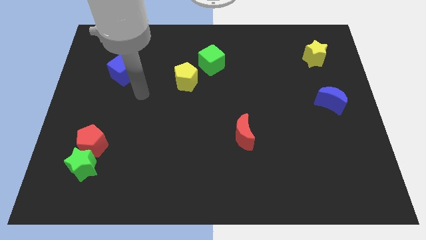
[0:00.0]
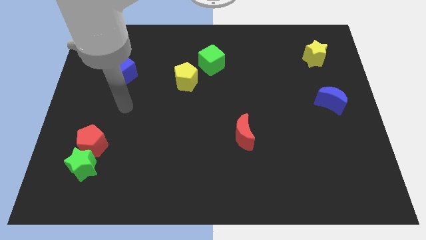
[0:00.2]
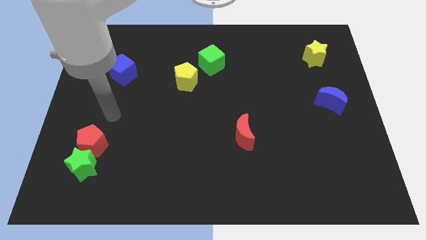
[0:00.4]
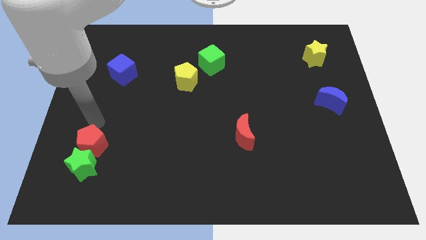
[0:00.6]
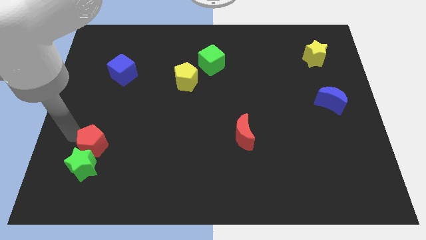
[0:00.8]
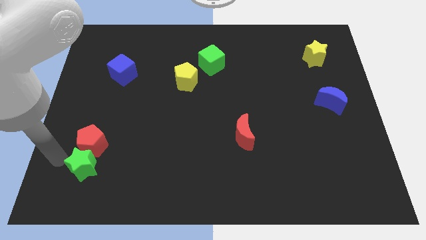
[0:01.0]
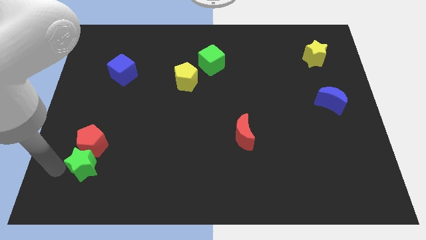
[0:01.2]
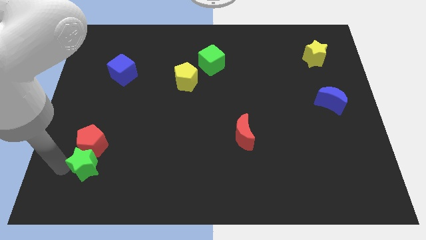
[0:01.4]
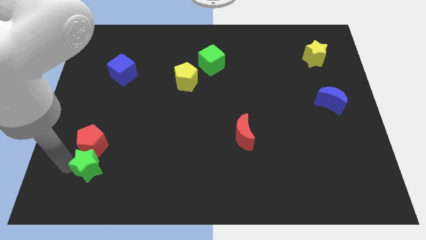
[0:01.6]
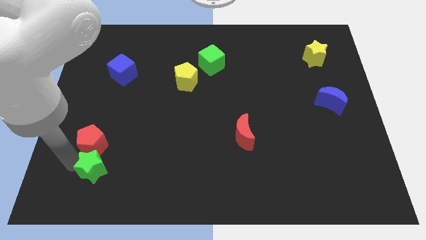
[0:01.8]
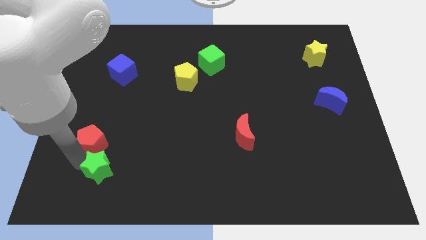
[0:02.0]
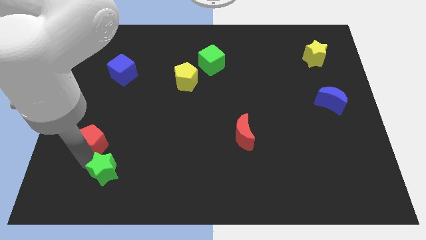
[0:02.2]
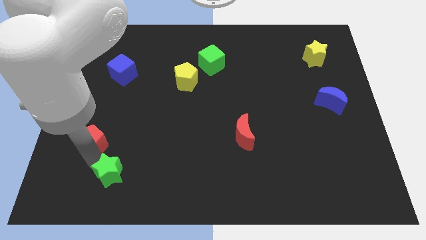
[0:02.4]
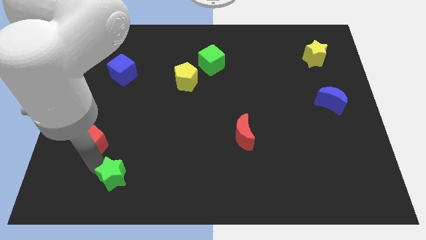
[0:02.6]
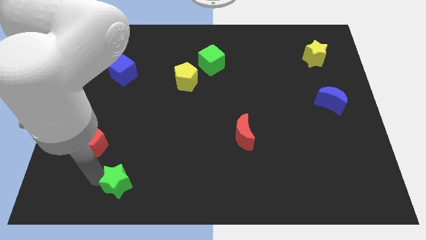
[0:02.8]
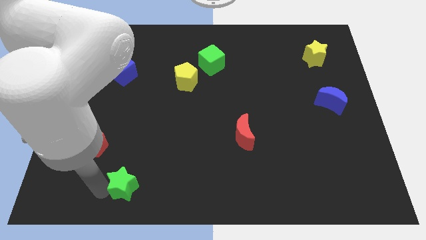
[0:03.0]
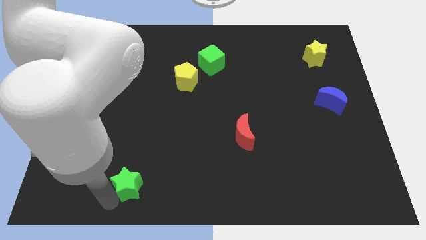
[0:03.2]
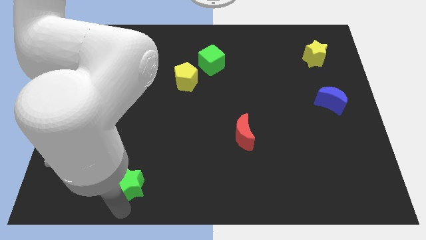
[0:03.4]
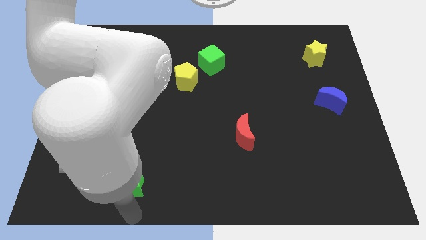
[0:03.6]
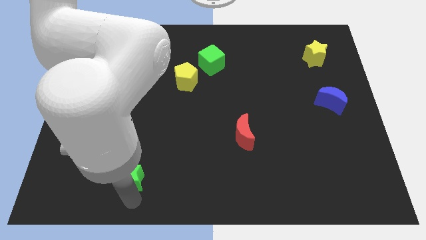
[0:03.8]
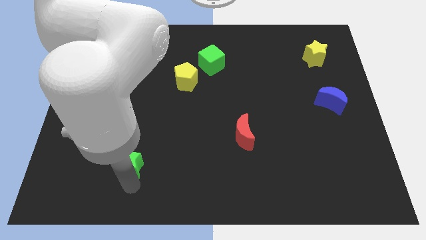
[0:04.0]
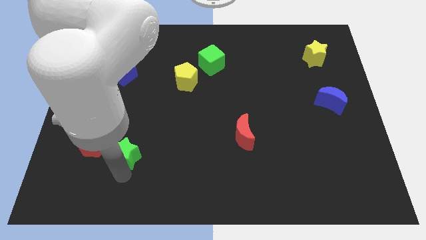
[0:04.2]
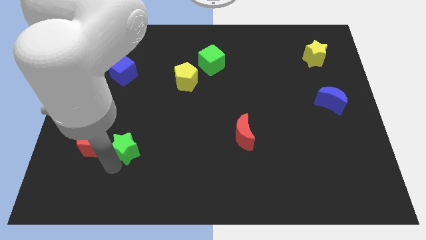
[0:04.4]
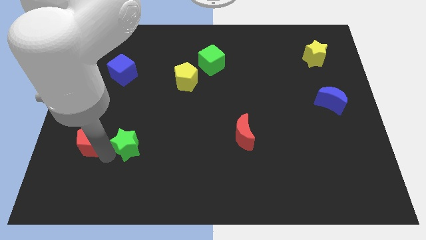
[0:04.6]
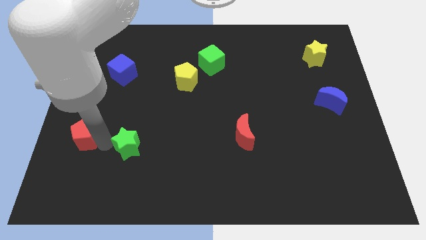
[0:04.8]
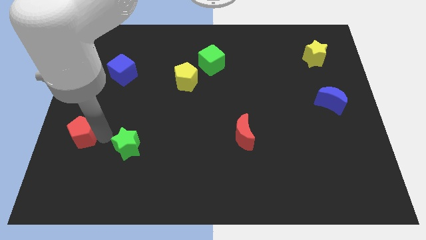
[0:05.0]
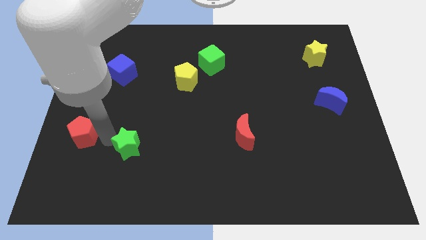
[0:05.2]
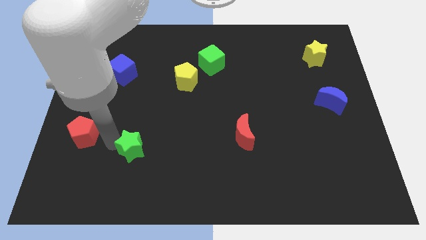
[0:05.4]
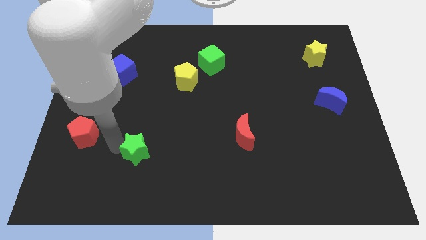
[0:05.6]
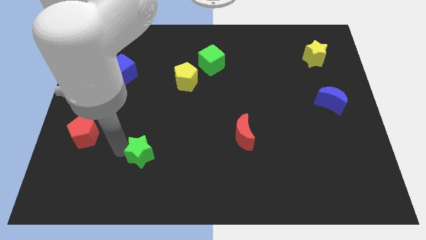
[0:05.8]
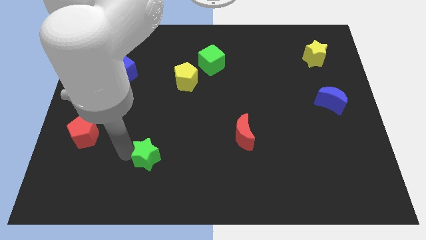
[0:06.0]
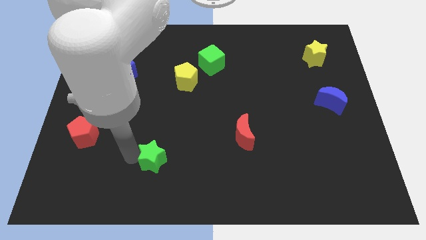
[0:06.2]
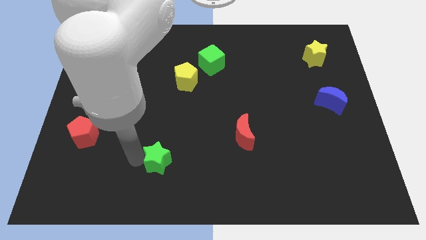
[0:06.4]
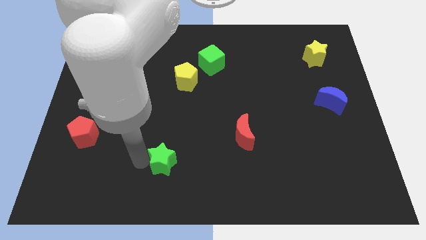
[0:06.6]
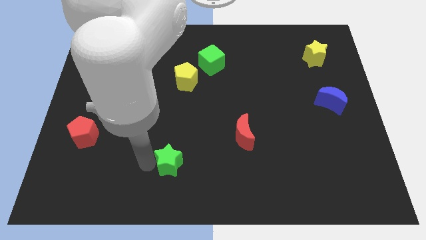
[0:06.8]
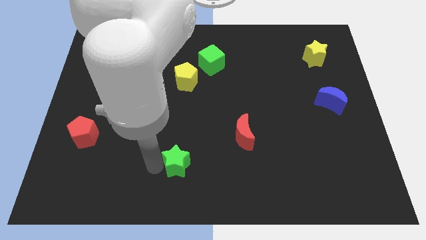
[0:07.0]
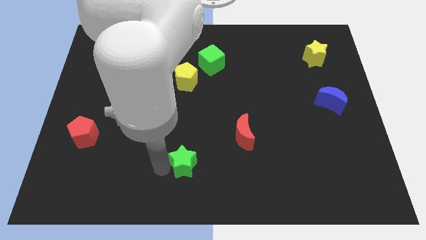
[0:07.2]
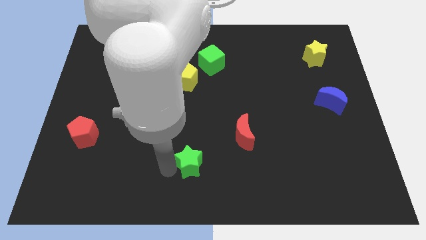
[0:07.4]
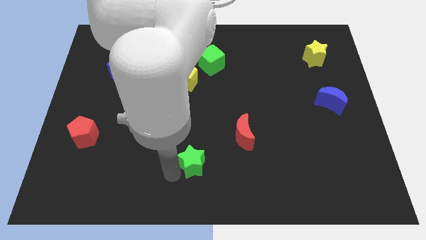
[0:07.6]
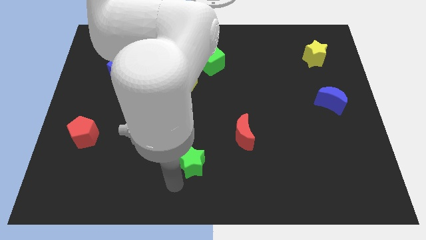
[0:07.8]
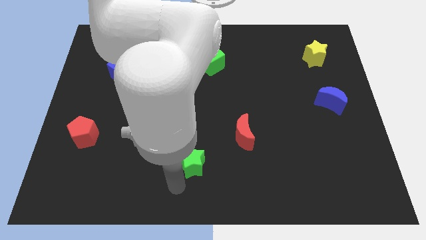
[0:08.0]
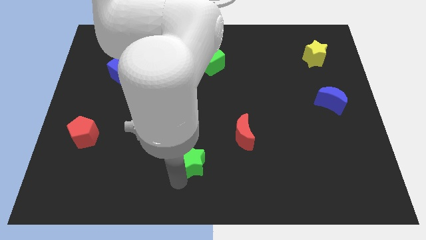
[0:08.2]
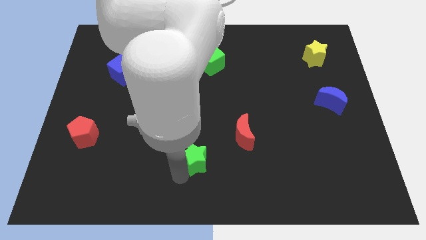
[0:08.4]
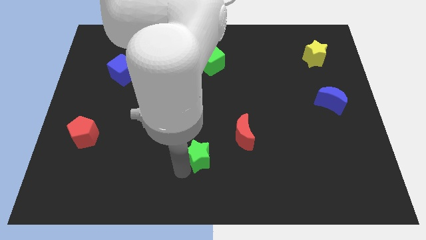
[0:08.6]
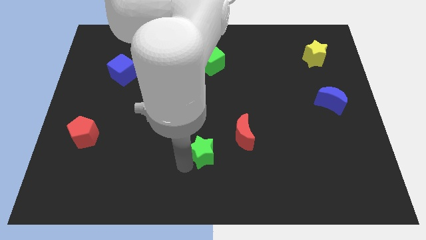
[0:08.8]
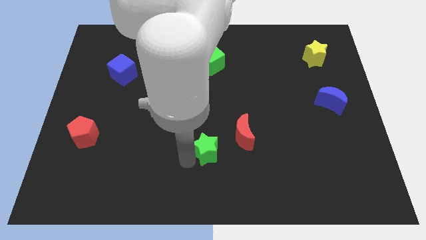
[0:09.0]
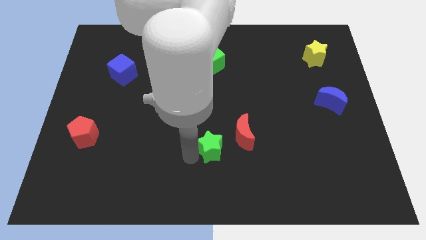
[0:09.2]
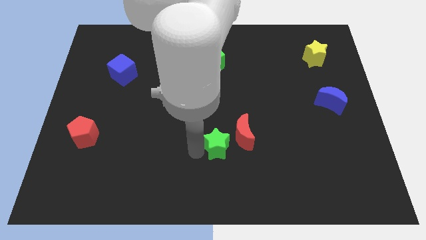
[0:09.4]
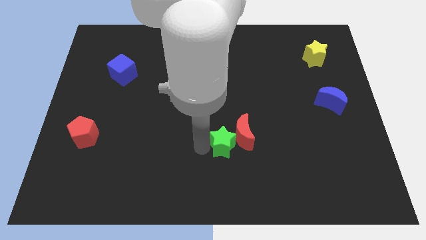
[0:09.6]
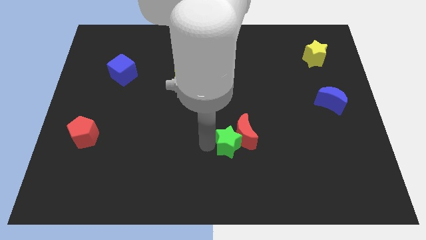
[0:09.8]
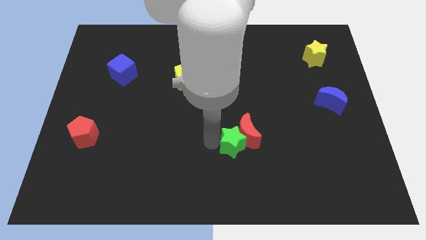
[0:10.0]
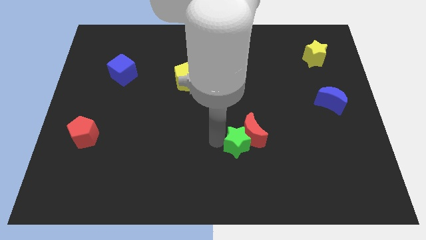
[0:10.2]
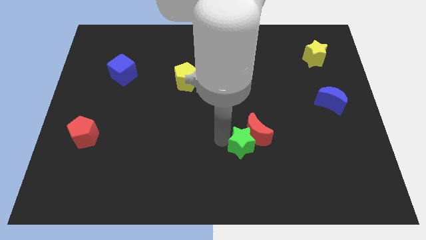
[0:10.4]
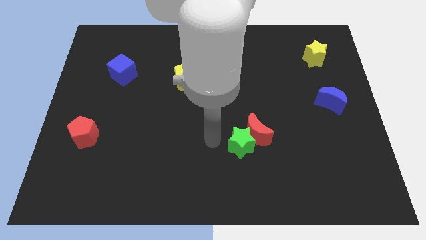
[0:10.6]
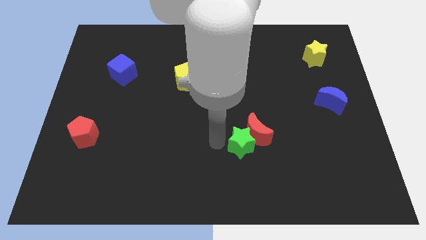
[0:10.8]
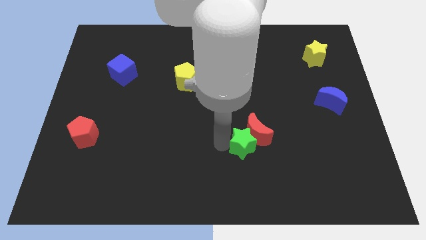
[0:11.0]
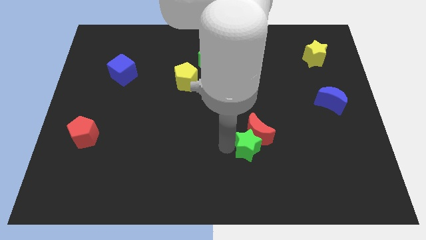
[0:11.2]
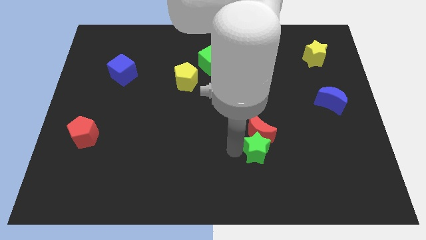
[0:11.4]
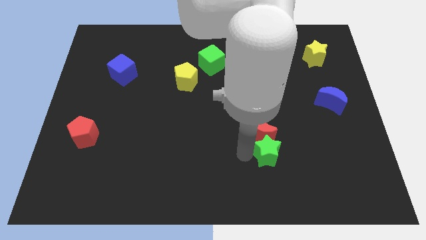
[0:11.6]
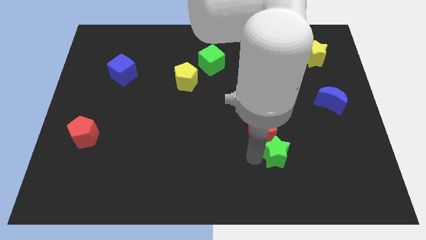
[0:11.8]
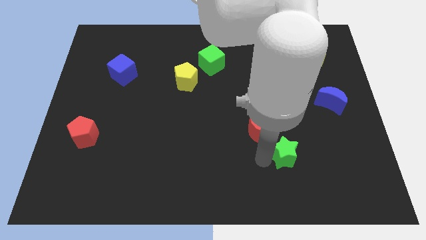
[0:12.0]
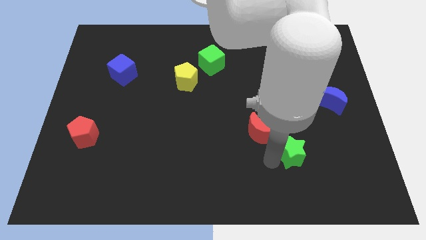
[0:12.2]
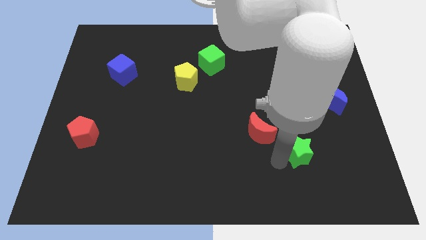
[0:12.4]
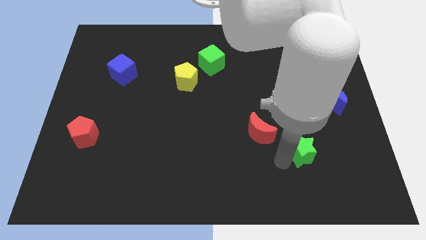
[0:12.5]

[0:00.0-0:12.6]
push the green star to the right side of the red moon
